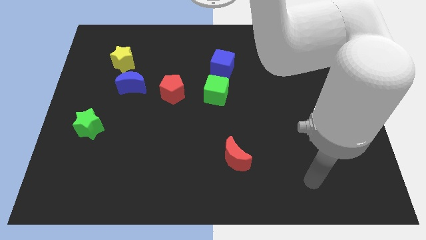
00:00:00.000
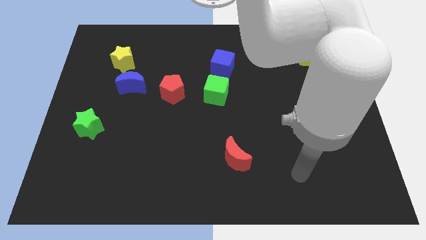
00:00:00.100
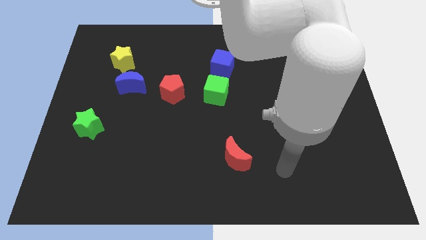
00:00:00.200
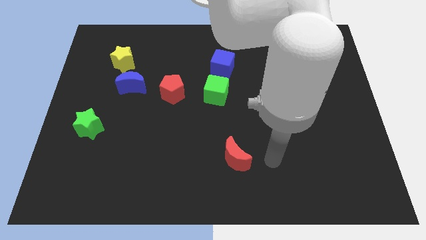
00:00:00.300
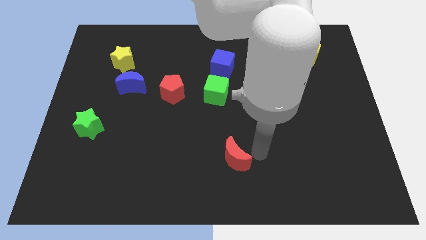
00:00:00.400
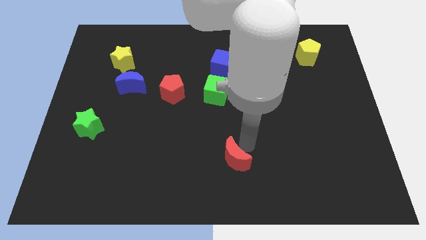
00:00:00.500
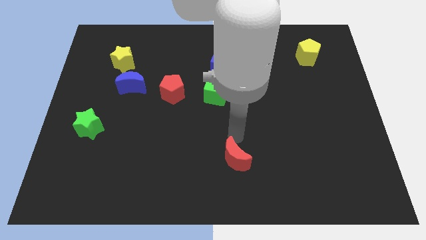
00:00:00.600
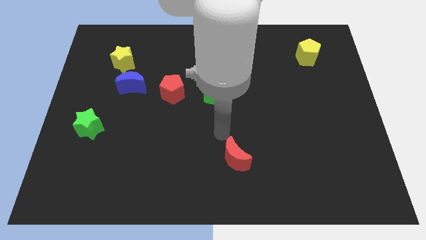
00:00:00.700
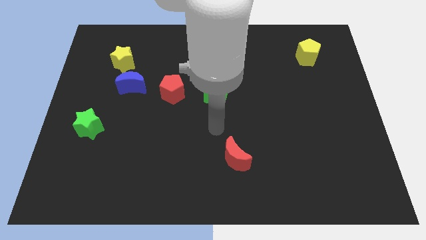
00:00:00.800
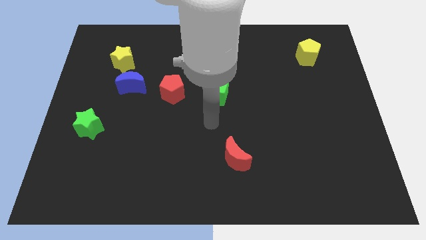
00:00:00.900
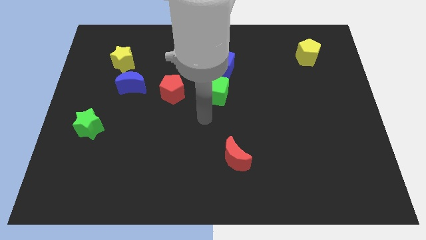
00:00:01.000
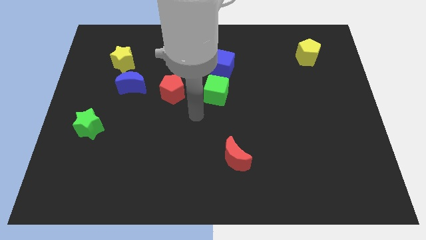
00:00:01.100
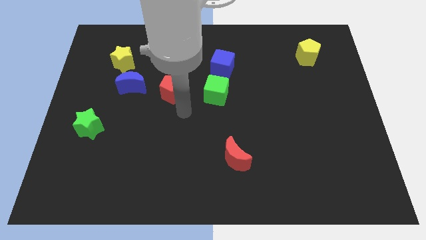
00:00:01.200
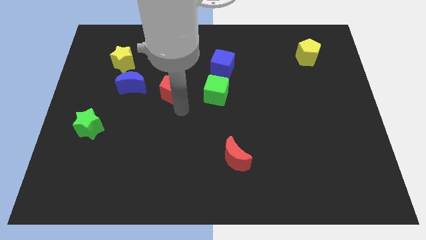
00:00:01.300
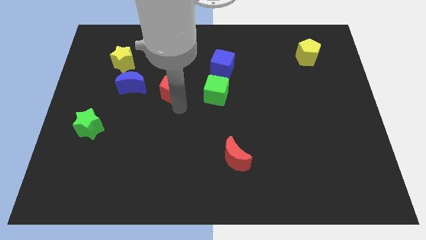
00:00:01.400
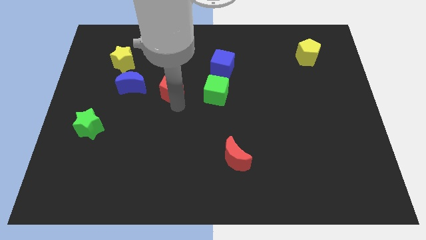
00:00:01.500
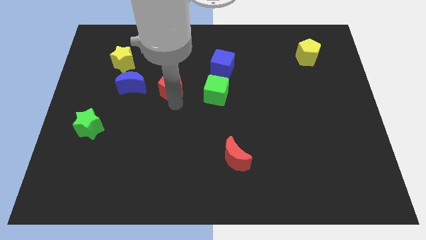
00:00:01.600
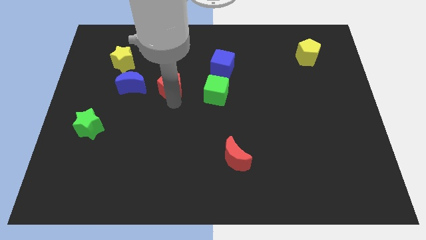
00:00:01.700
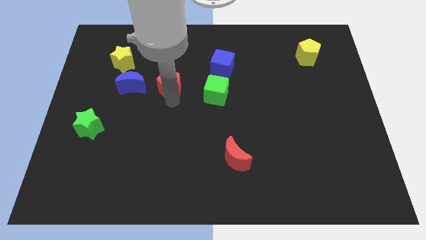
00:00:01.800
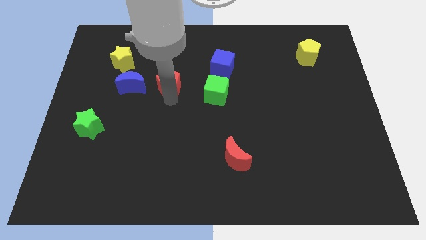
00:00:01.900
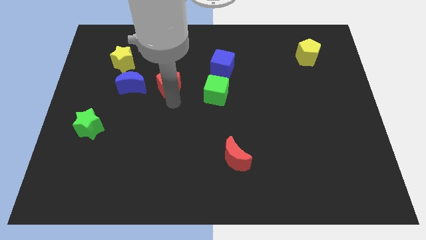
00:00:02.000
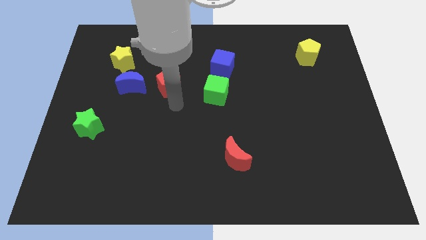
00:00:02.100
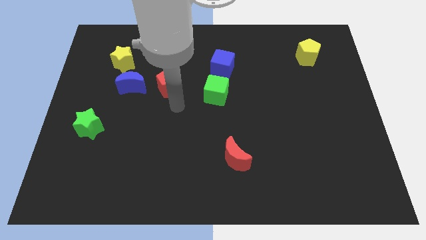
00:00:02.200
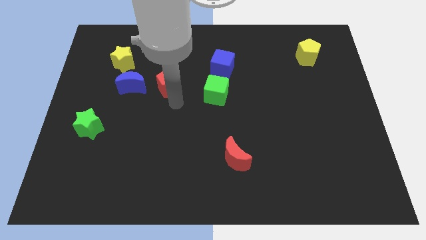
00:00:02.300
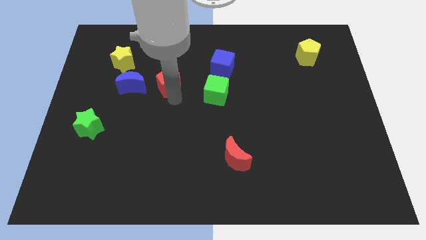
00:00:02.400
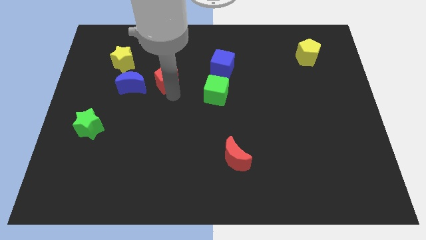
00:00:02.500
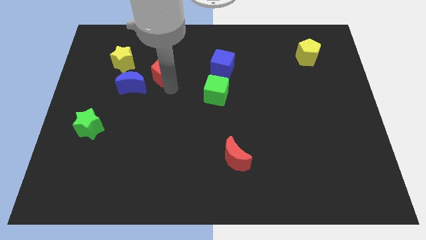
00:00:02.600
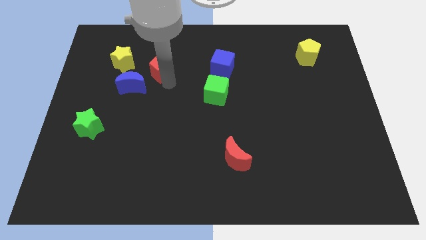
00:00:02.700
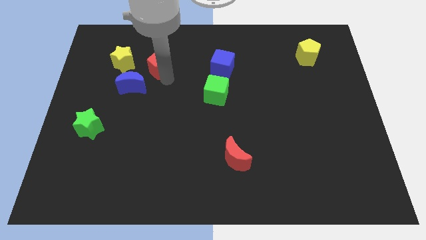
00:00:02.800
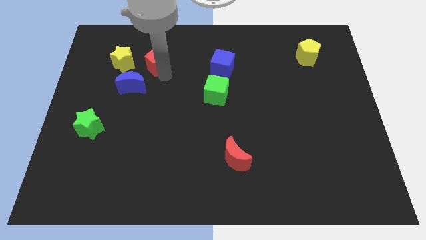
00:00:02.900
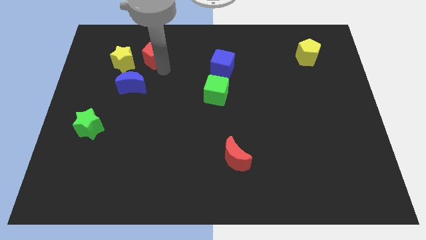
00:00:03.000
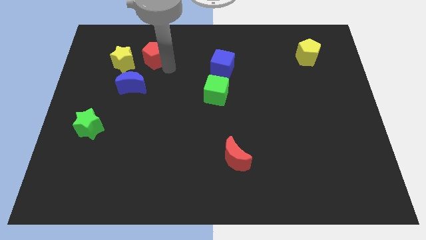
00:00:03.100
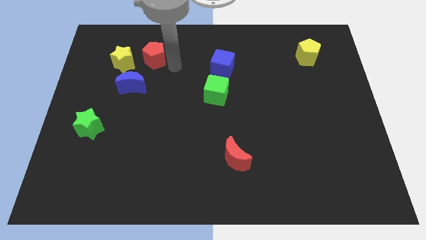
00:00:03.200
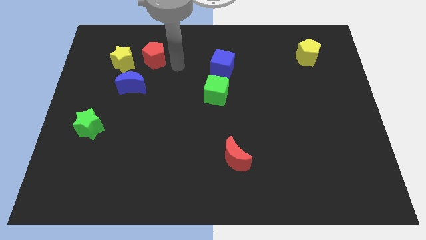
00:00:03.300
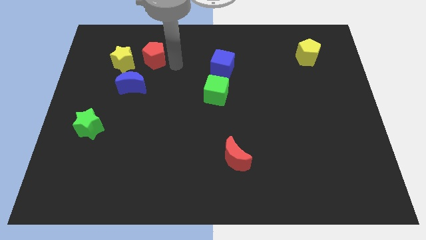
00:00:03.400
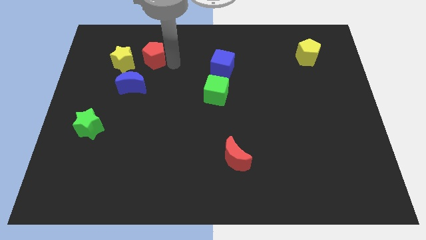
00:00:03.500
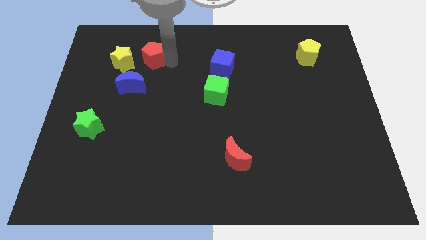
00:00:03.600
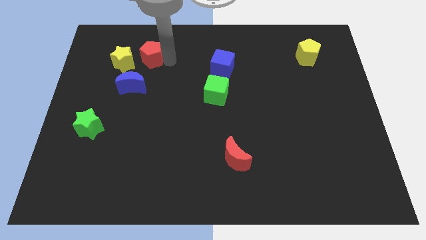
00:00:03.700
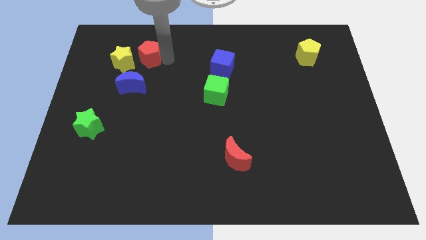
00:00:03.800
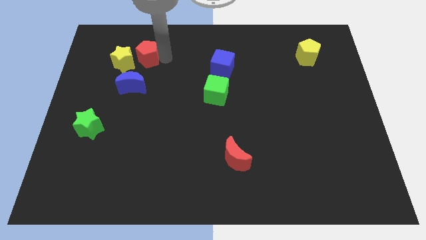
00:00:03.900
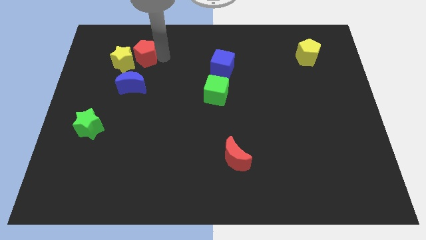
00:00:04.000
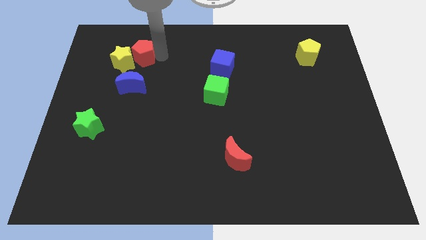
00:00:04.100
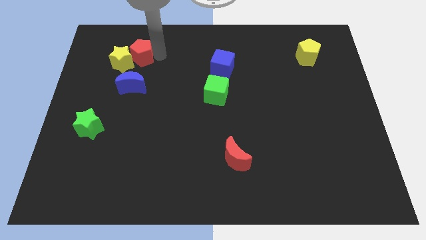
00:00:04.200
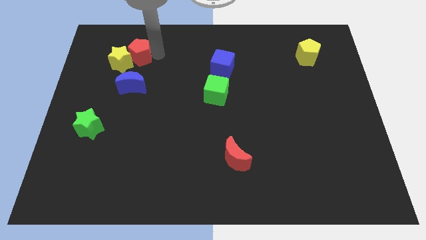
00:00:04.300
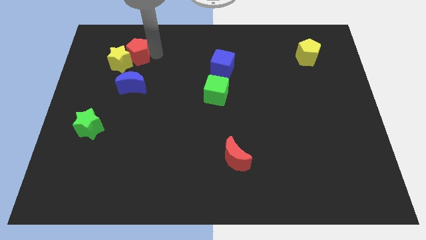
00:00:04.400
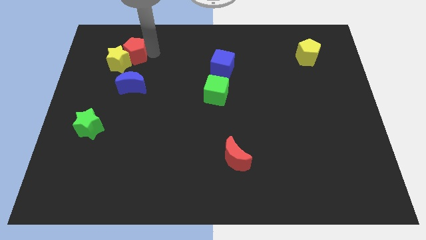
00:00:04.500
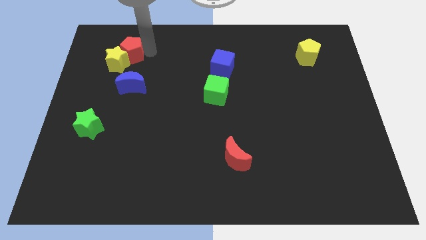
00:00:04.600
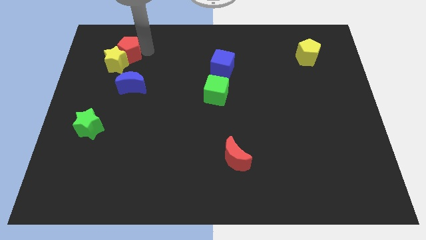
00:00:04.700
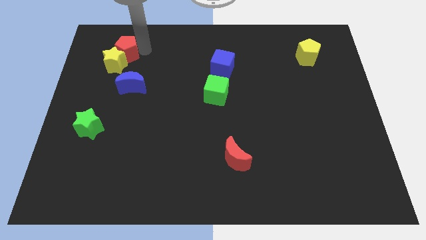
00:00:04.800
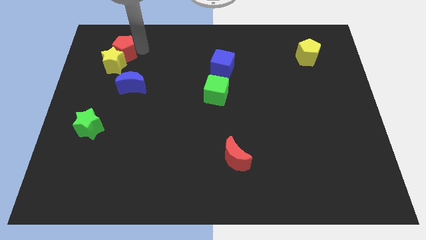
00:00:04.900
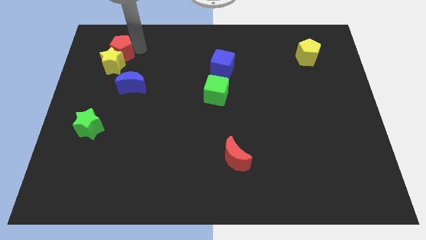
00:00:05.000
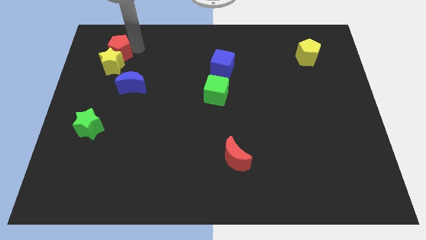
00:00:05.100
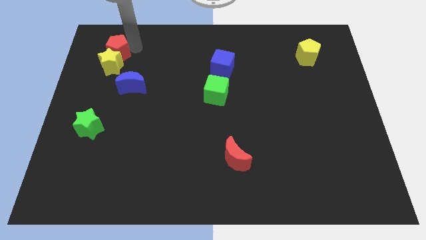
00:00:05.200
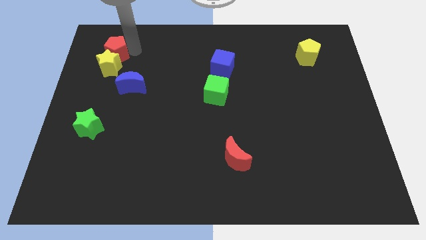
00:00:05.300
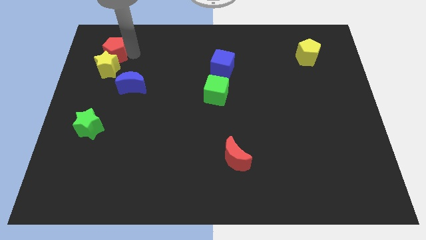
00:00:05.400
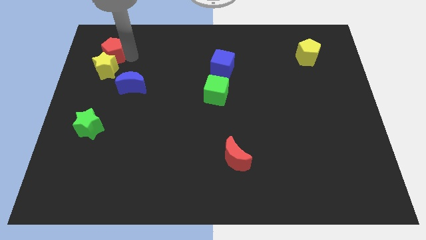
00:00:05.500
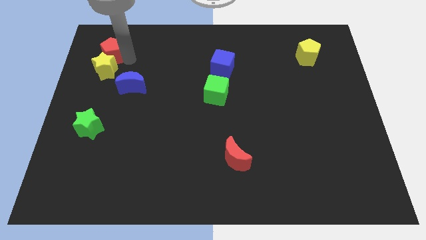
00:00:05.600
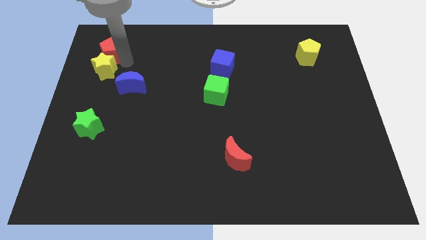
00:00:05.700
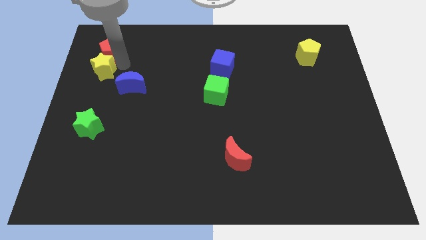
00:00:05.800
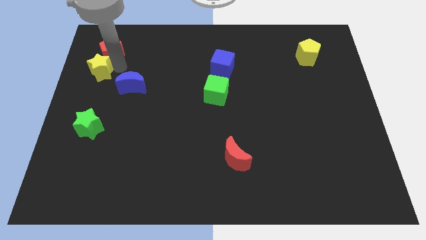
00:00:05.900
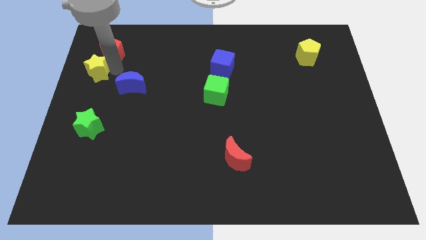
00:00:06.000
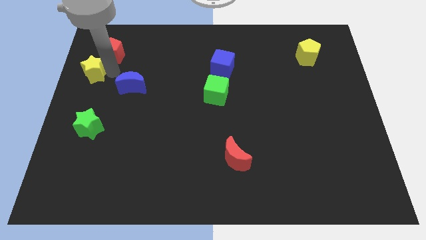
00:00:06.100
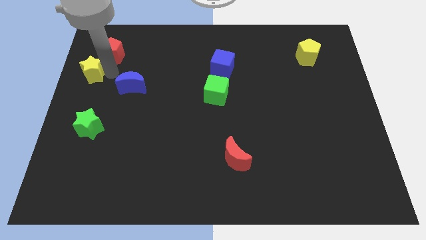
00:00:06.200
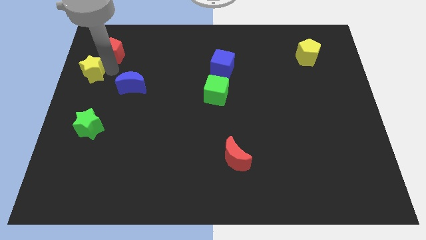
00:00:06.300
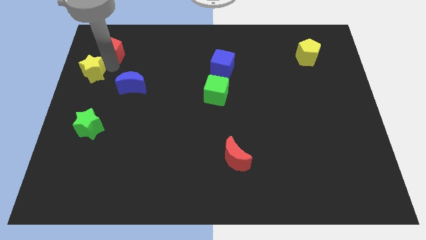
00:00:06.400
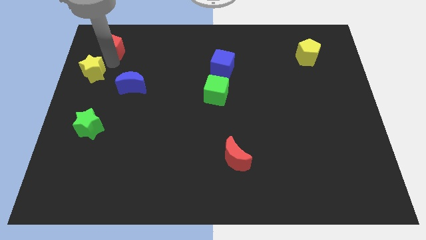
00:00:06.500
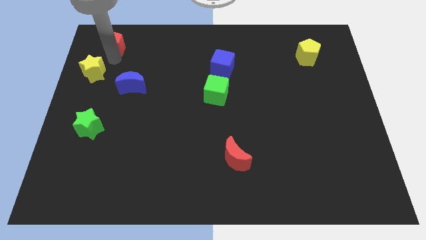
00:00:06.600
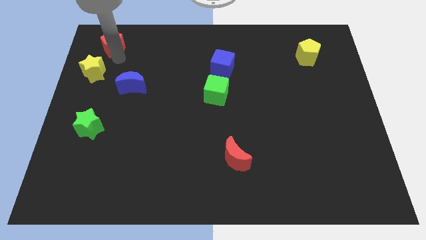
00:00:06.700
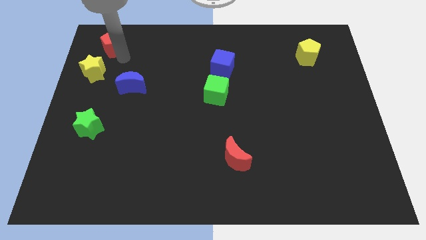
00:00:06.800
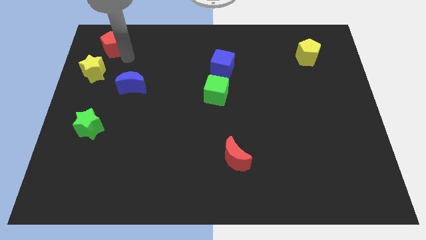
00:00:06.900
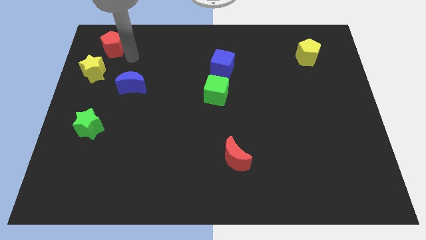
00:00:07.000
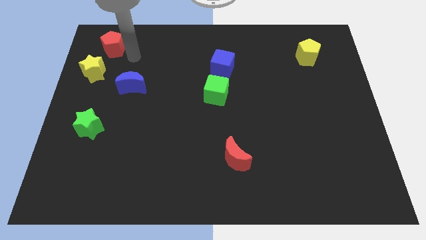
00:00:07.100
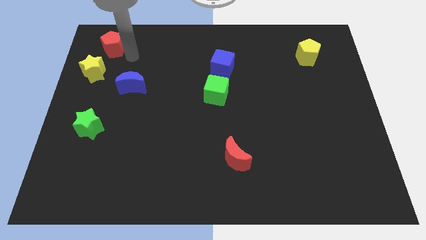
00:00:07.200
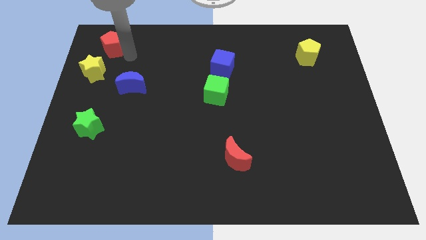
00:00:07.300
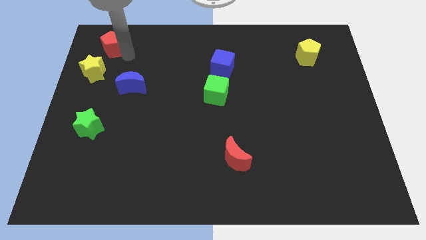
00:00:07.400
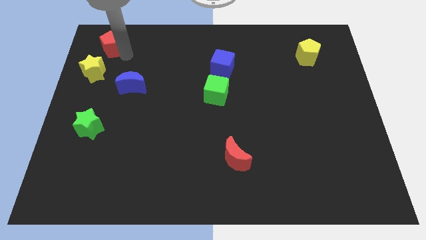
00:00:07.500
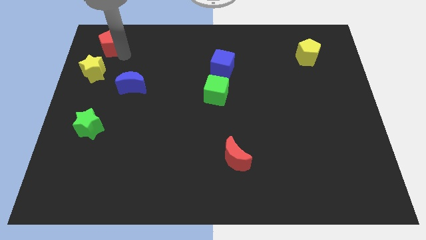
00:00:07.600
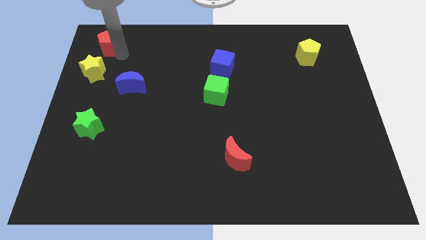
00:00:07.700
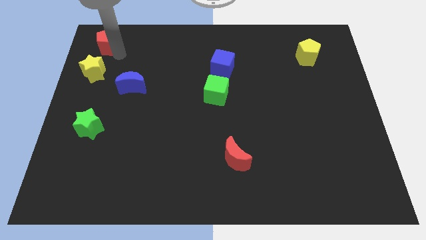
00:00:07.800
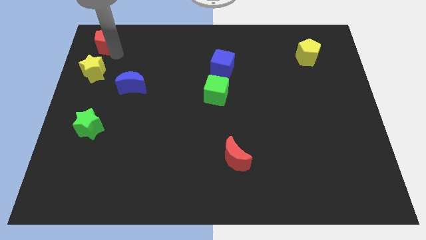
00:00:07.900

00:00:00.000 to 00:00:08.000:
move the red pentagon to the top left
